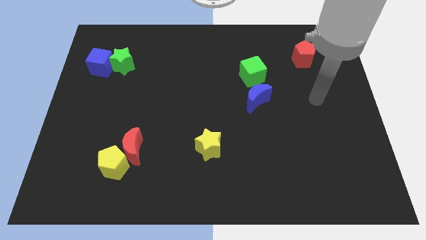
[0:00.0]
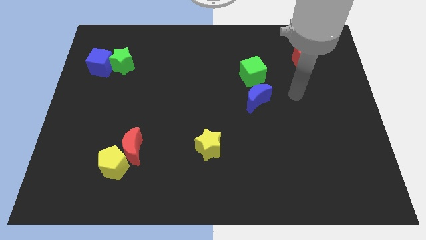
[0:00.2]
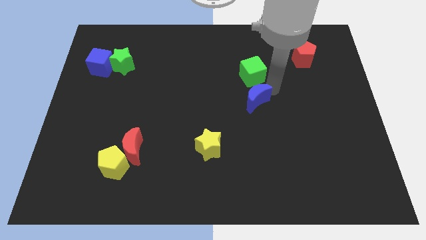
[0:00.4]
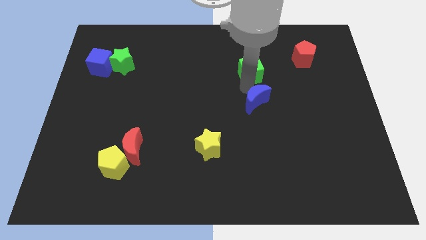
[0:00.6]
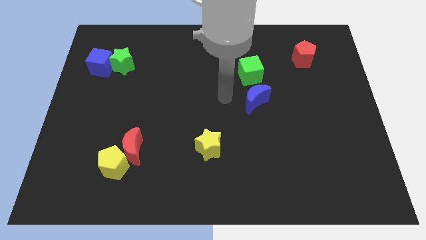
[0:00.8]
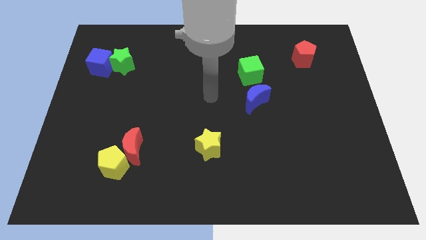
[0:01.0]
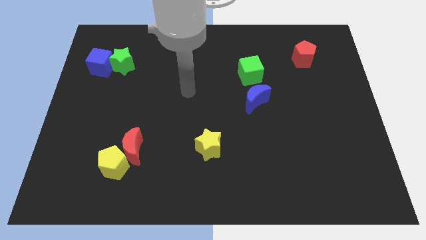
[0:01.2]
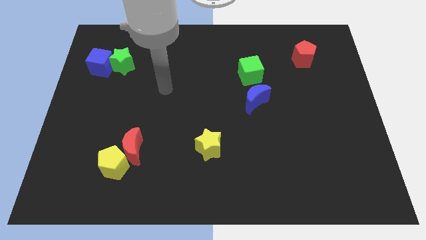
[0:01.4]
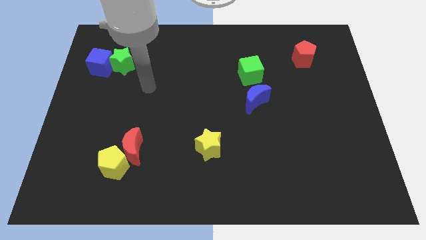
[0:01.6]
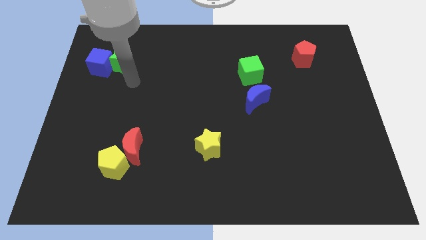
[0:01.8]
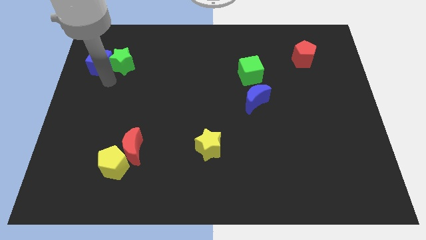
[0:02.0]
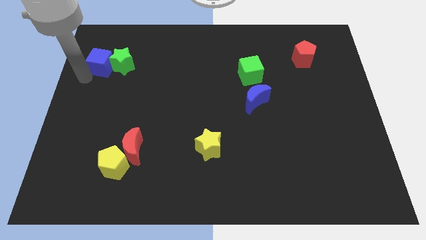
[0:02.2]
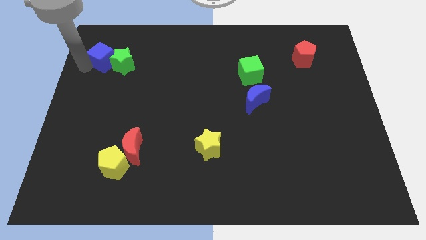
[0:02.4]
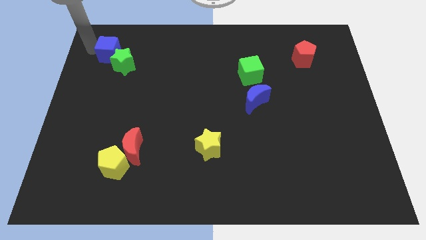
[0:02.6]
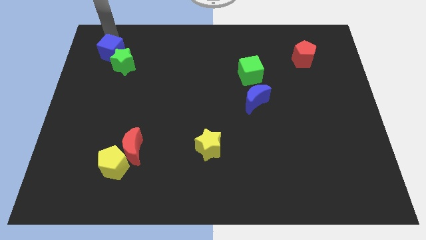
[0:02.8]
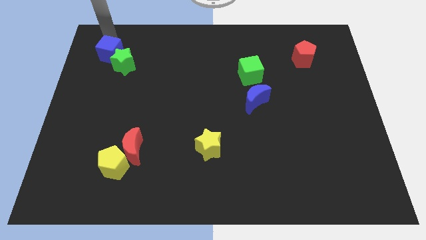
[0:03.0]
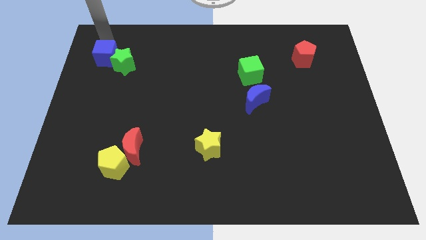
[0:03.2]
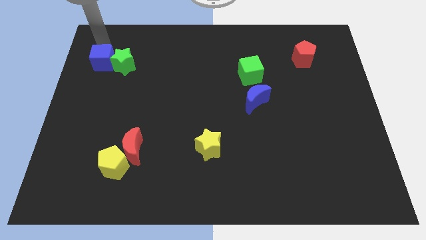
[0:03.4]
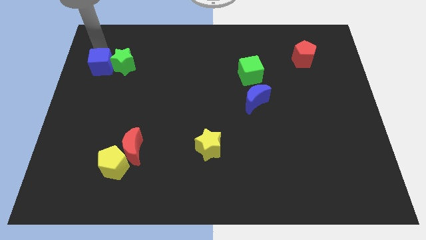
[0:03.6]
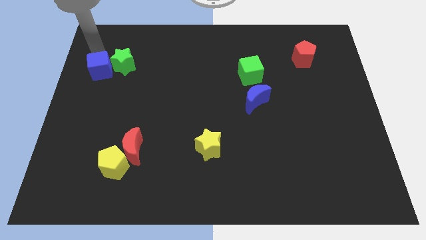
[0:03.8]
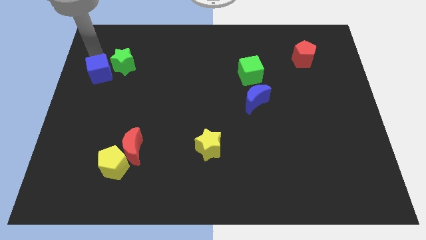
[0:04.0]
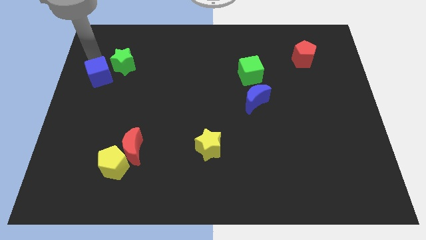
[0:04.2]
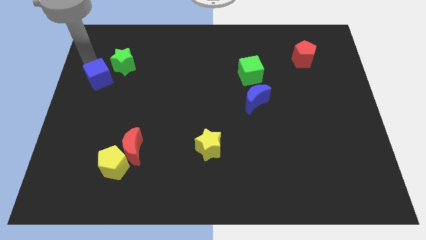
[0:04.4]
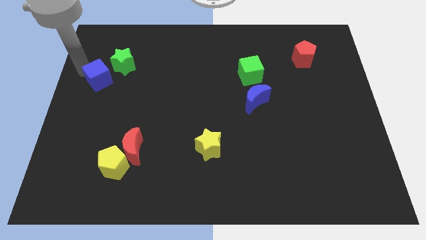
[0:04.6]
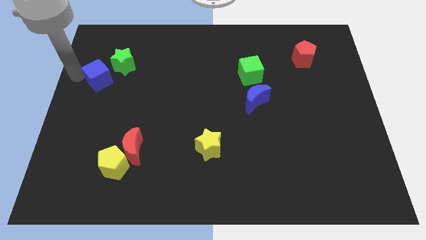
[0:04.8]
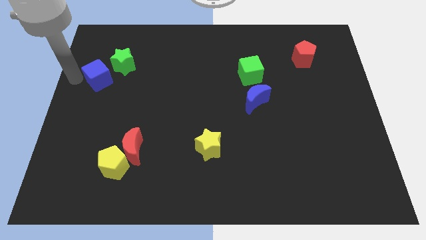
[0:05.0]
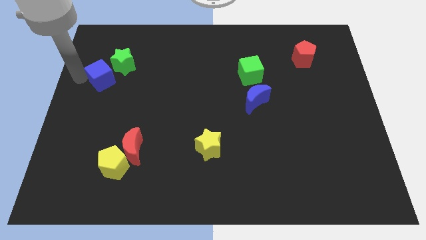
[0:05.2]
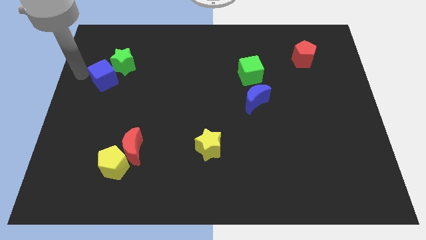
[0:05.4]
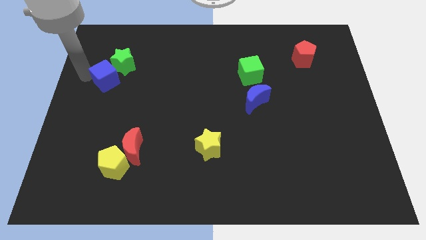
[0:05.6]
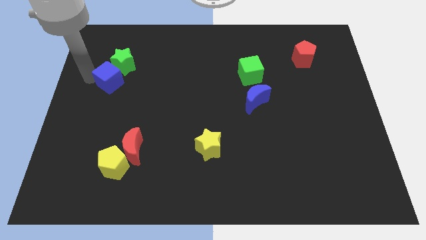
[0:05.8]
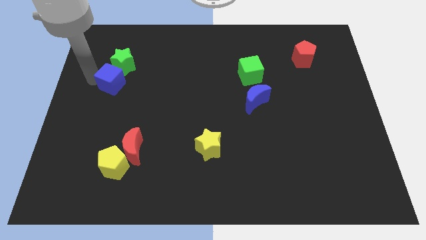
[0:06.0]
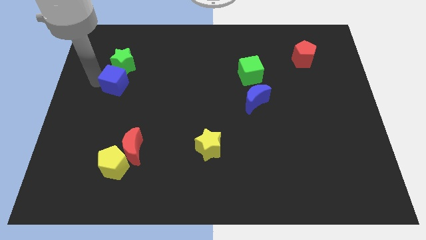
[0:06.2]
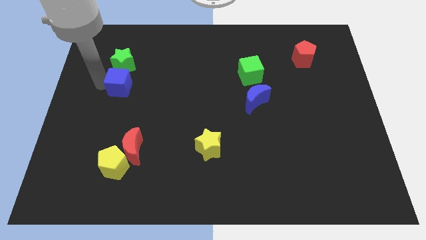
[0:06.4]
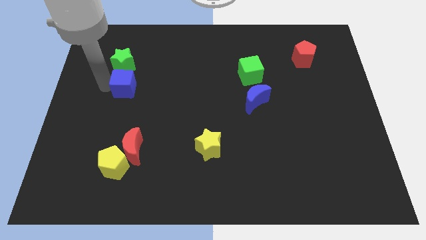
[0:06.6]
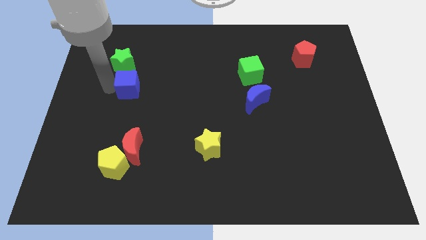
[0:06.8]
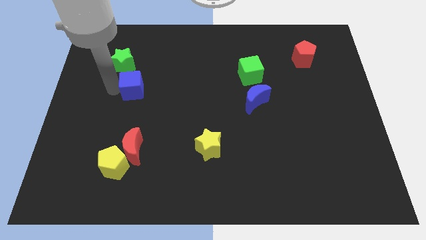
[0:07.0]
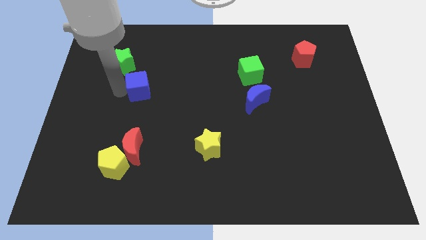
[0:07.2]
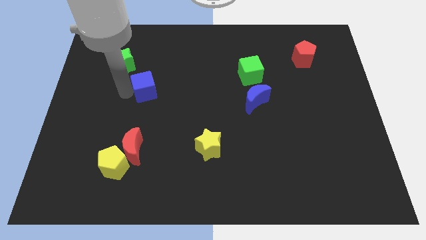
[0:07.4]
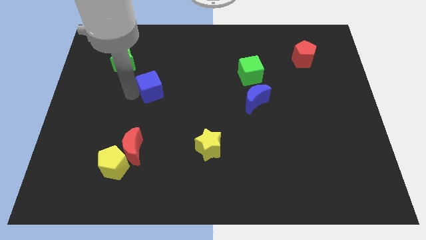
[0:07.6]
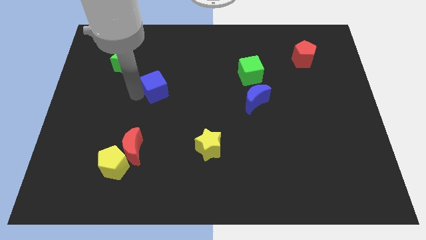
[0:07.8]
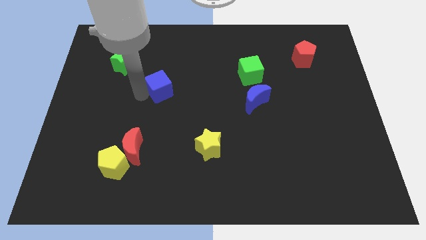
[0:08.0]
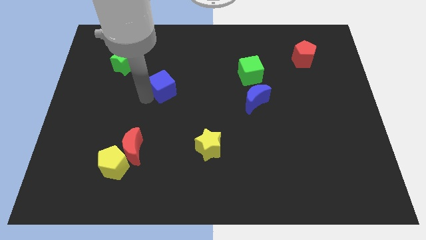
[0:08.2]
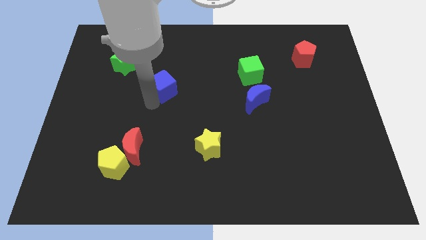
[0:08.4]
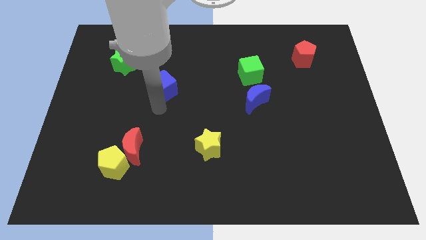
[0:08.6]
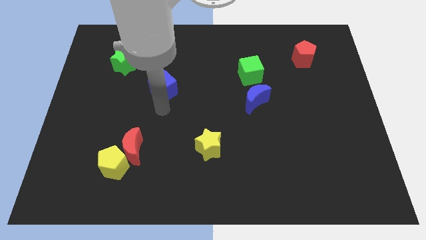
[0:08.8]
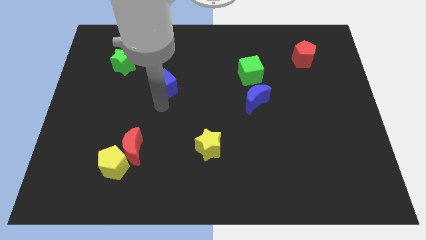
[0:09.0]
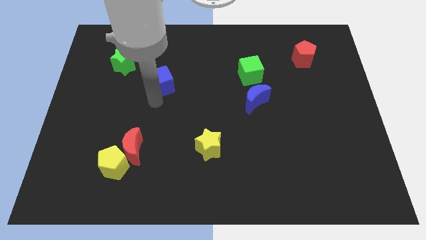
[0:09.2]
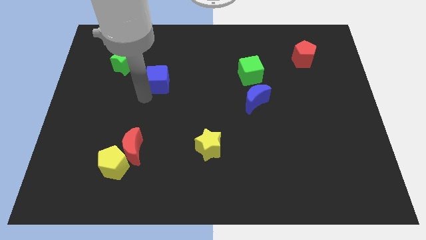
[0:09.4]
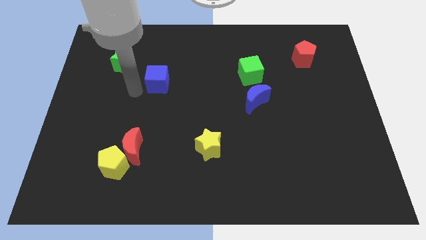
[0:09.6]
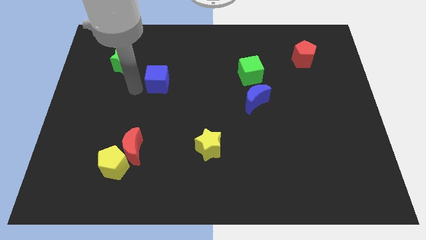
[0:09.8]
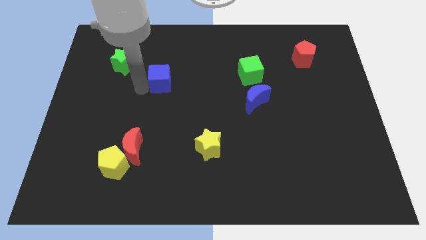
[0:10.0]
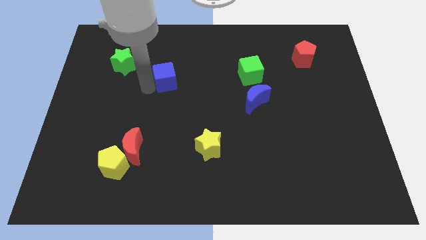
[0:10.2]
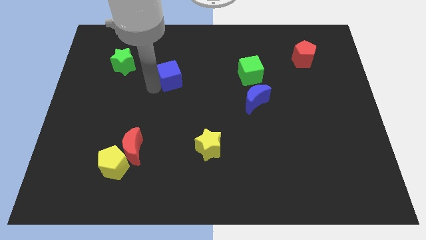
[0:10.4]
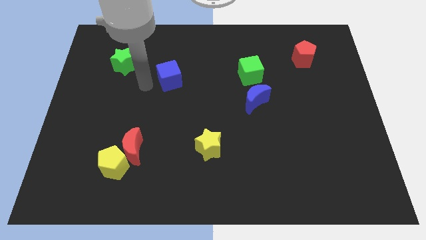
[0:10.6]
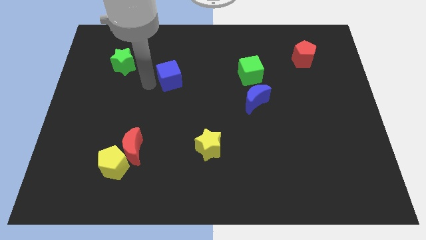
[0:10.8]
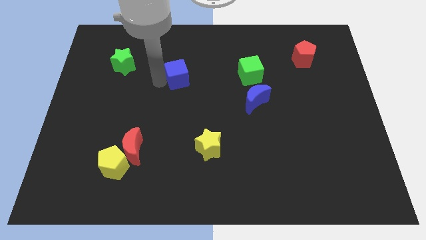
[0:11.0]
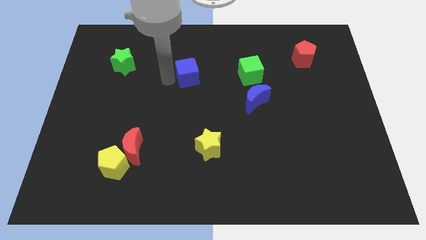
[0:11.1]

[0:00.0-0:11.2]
push the blue cube to the left of the green cube
